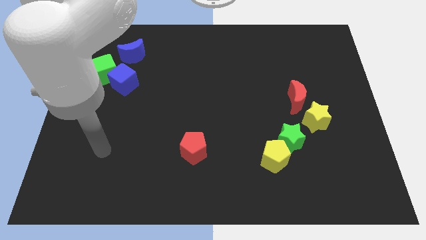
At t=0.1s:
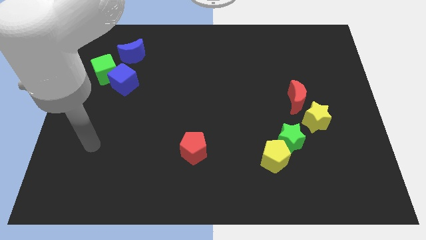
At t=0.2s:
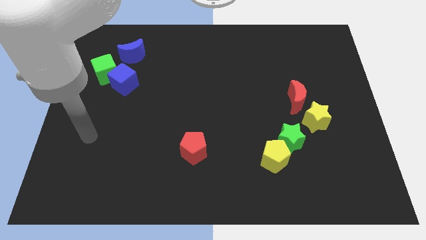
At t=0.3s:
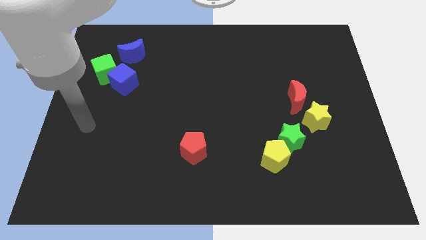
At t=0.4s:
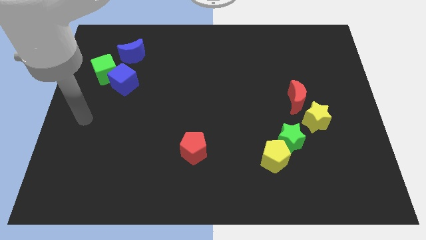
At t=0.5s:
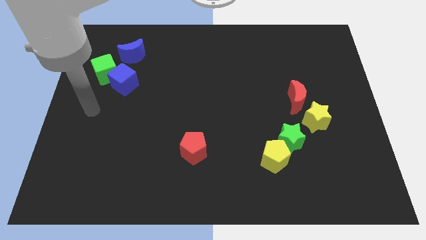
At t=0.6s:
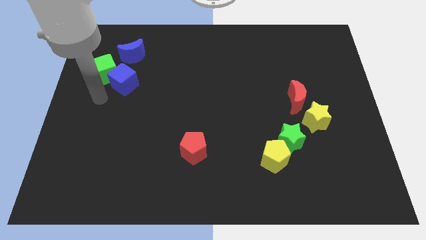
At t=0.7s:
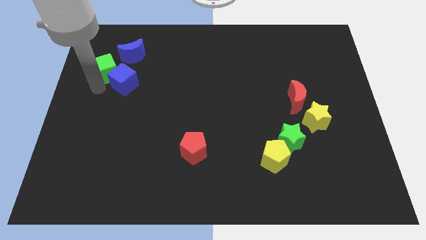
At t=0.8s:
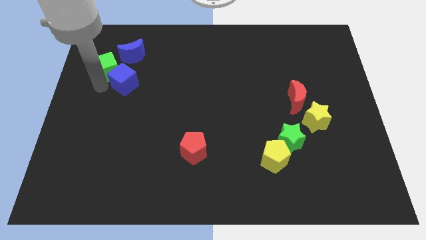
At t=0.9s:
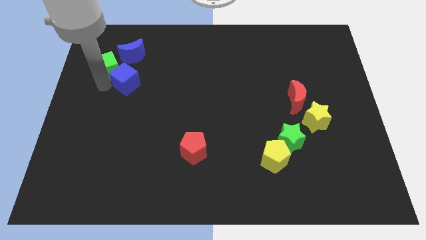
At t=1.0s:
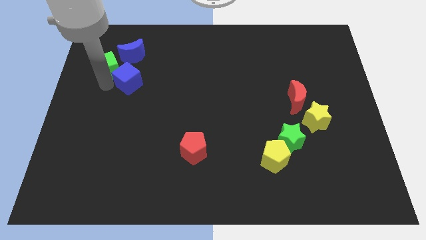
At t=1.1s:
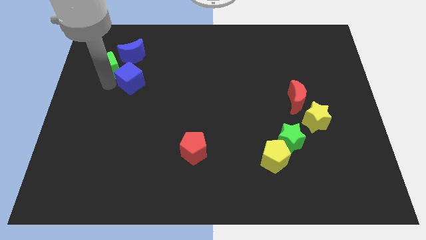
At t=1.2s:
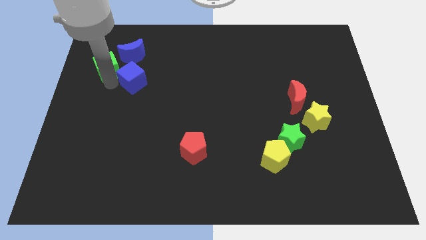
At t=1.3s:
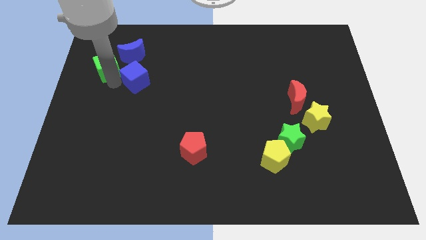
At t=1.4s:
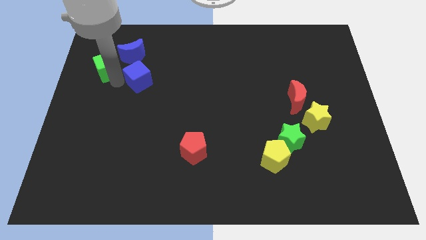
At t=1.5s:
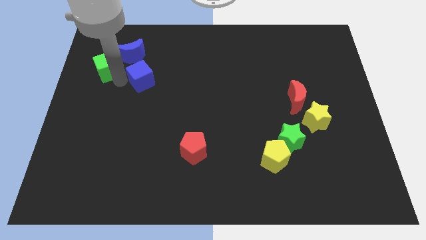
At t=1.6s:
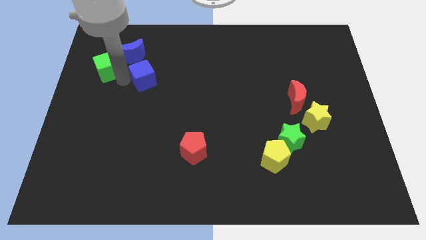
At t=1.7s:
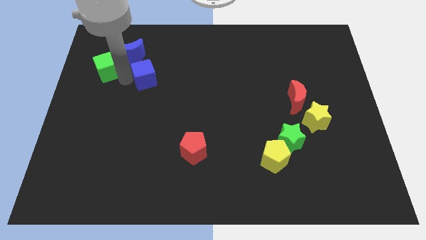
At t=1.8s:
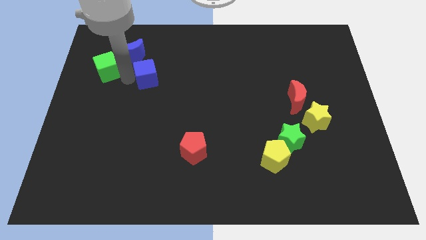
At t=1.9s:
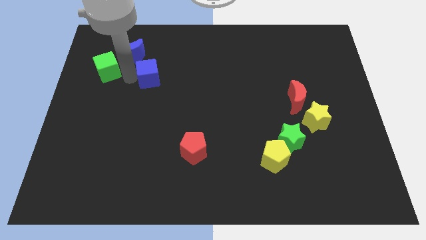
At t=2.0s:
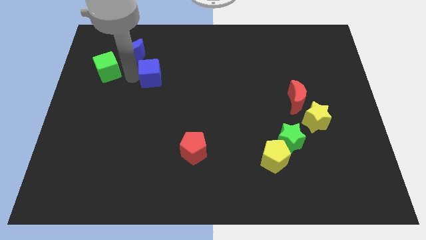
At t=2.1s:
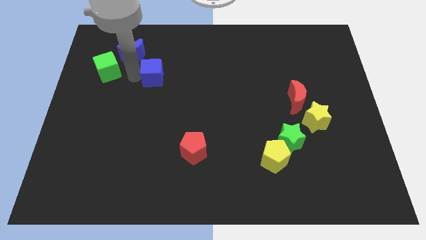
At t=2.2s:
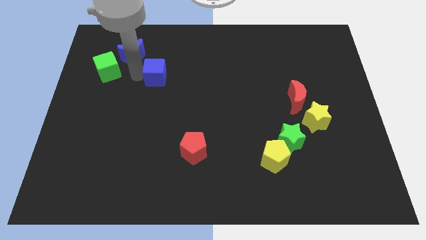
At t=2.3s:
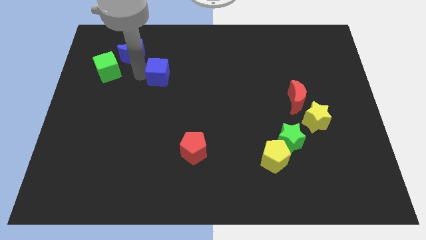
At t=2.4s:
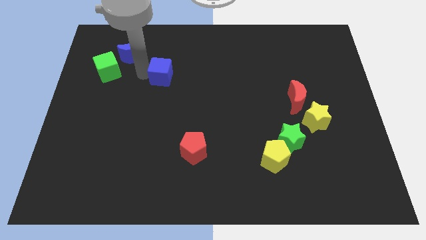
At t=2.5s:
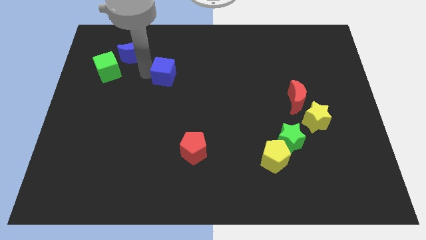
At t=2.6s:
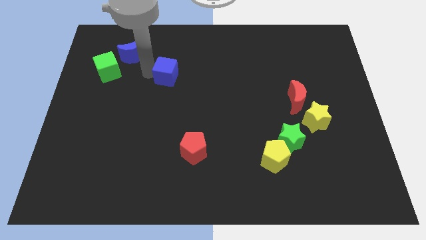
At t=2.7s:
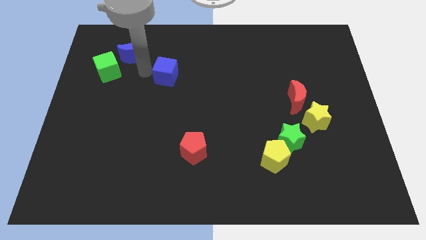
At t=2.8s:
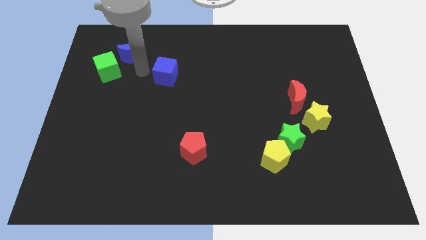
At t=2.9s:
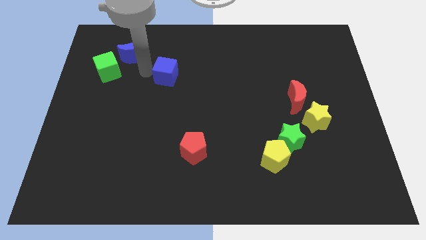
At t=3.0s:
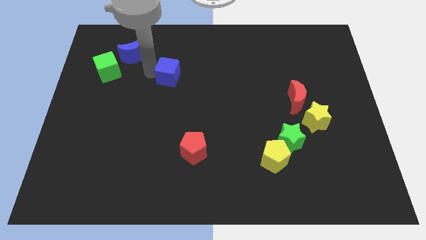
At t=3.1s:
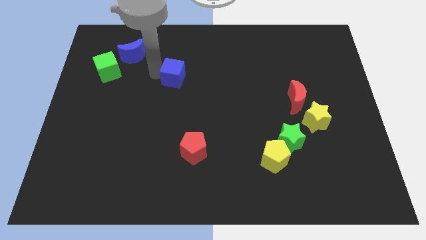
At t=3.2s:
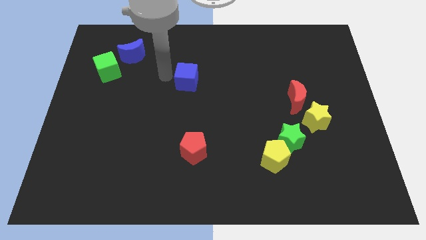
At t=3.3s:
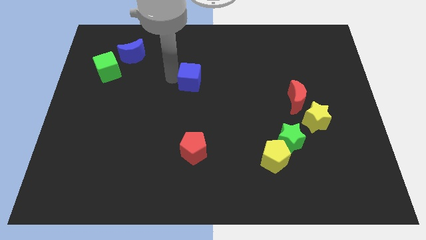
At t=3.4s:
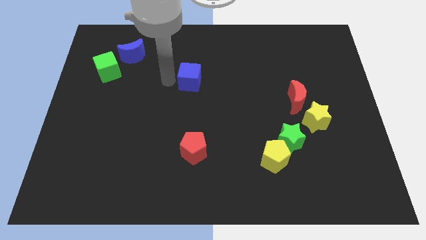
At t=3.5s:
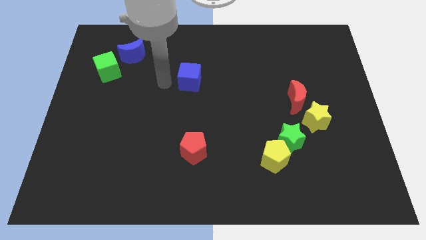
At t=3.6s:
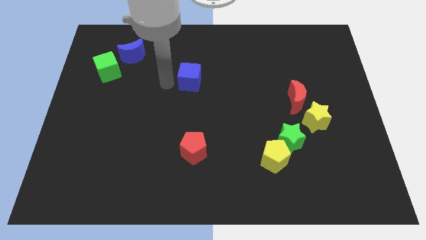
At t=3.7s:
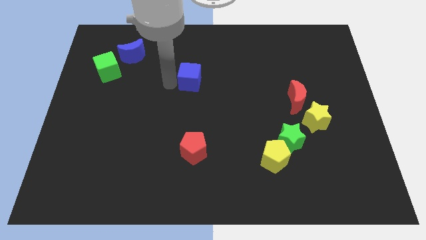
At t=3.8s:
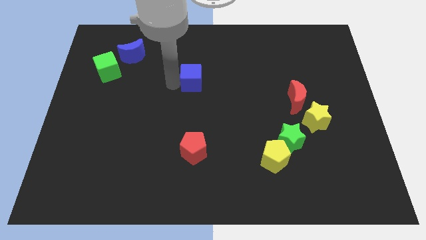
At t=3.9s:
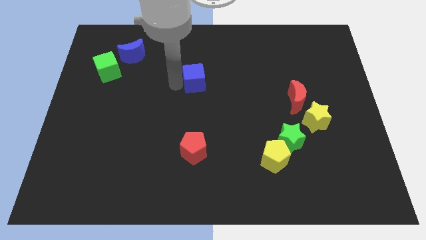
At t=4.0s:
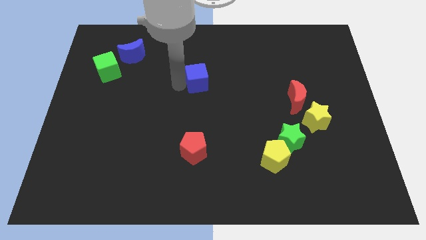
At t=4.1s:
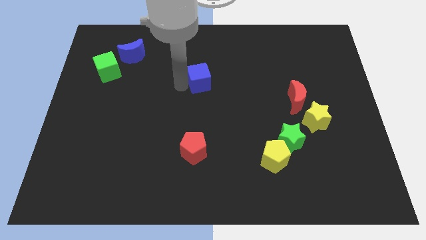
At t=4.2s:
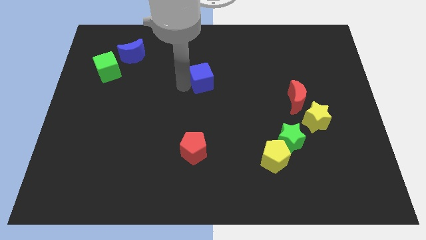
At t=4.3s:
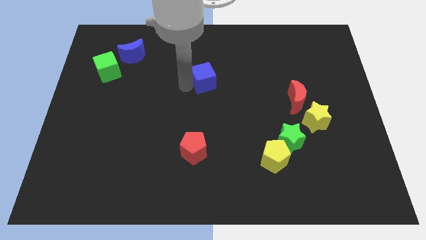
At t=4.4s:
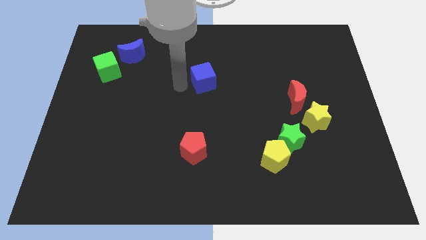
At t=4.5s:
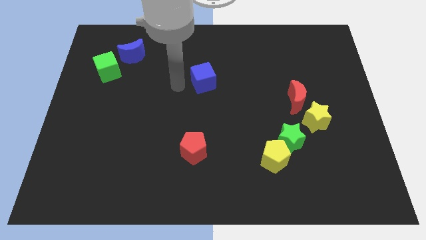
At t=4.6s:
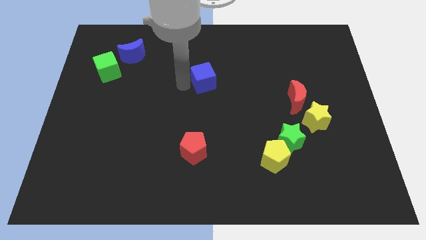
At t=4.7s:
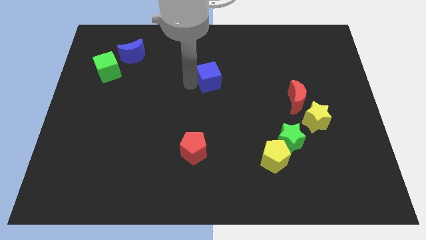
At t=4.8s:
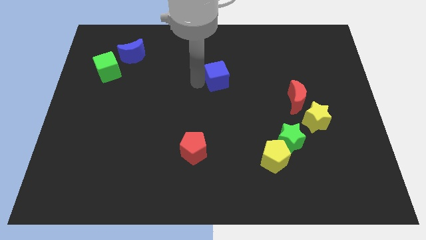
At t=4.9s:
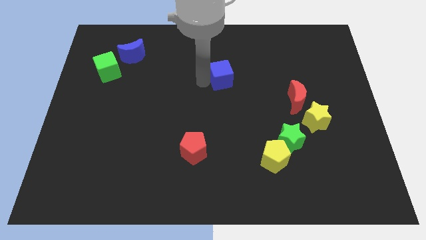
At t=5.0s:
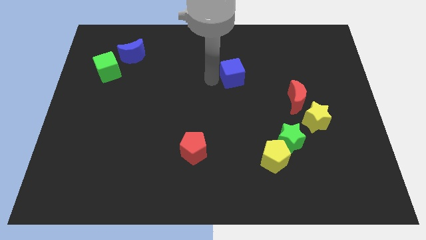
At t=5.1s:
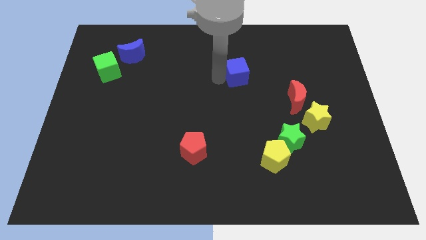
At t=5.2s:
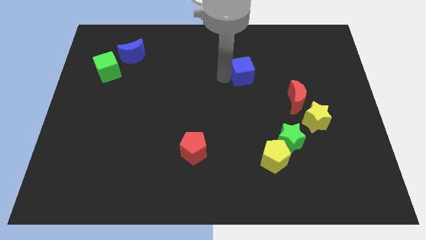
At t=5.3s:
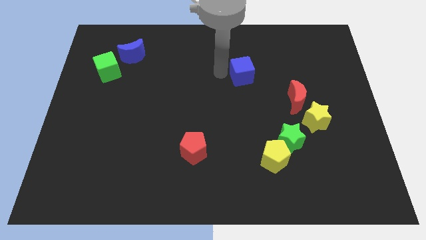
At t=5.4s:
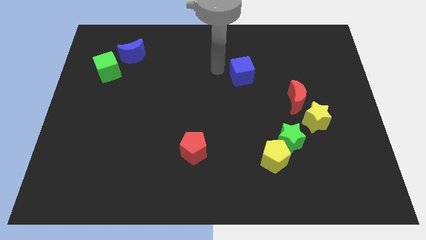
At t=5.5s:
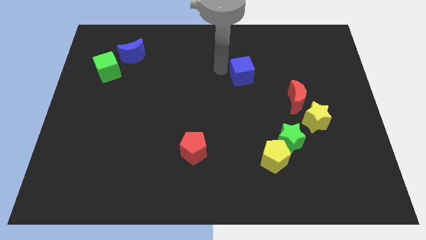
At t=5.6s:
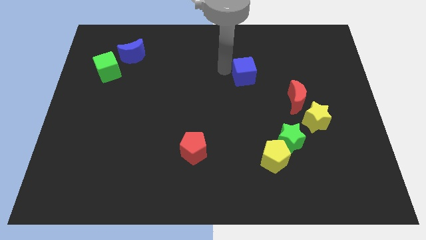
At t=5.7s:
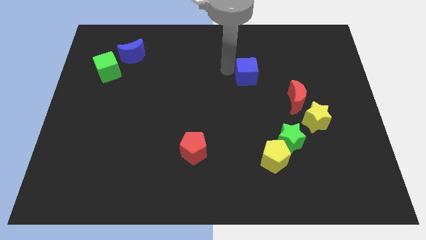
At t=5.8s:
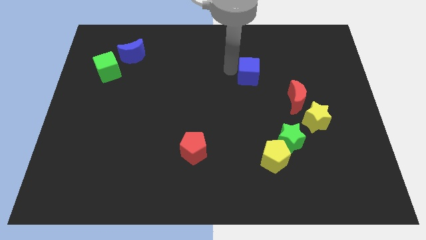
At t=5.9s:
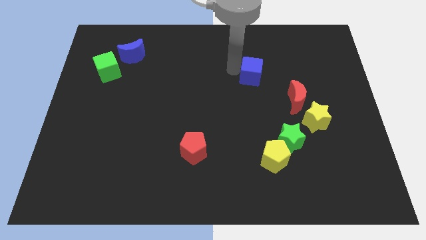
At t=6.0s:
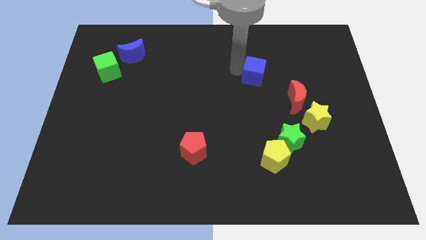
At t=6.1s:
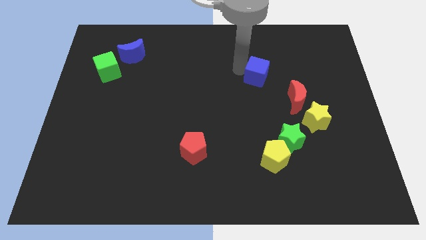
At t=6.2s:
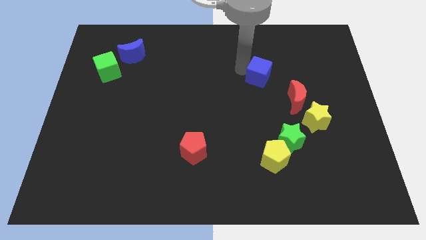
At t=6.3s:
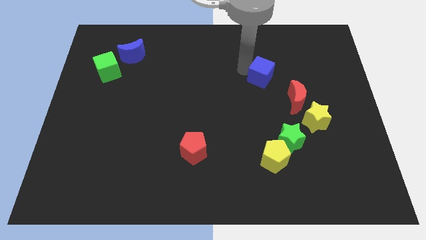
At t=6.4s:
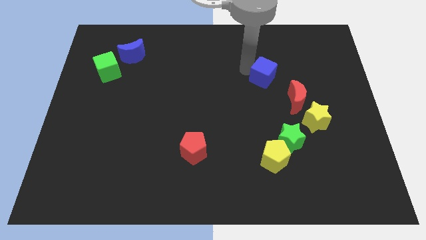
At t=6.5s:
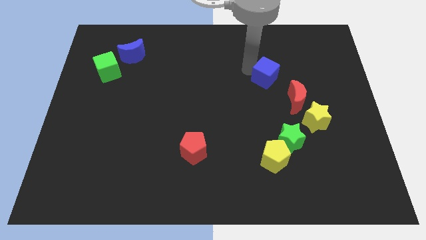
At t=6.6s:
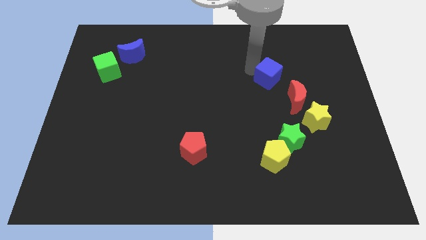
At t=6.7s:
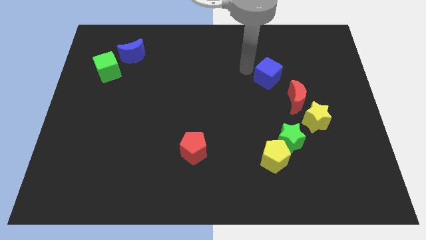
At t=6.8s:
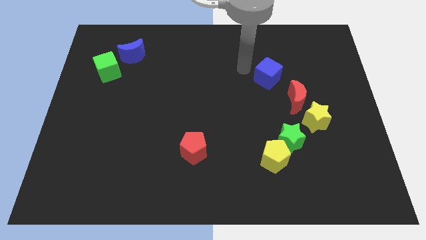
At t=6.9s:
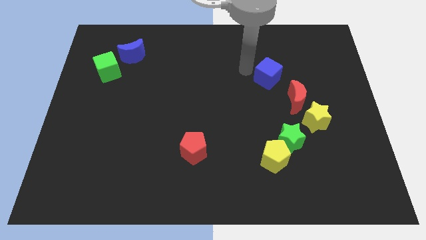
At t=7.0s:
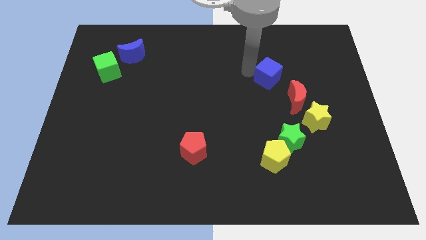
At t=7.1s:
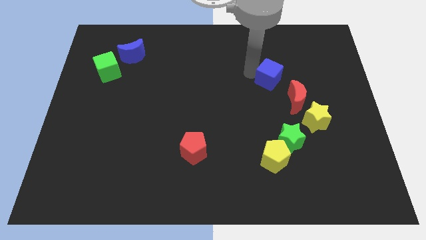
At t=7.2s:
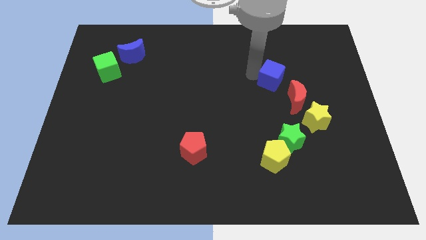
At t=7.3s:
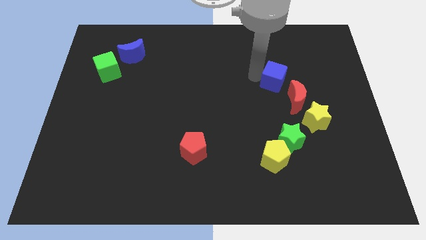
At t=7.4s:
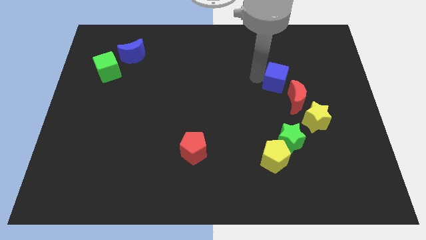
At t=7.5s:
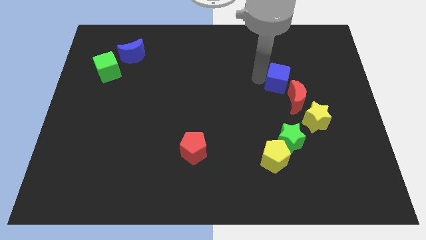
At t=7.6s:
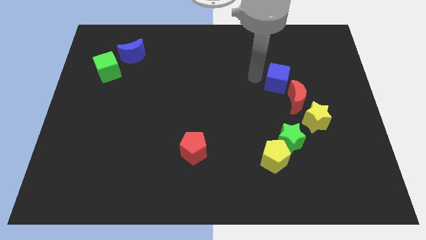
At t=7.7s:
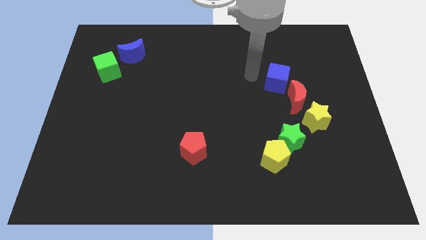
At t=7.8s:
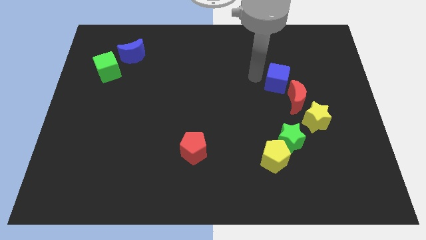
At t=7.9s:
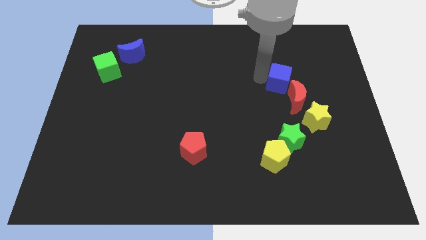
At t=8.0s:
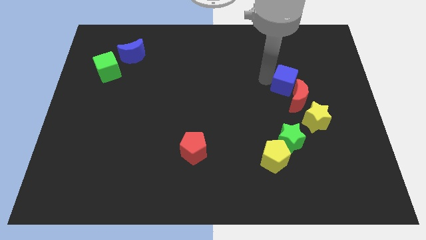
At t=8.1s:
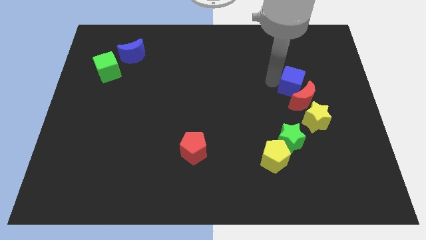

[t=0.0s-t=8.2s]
move the blue cube above the yellow star

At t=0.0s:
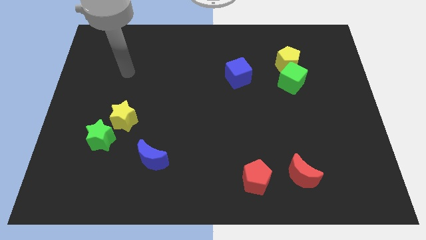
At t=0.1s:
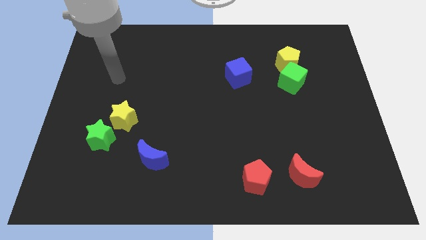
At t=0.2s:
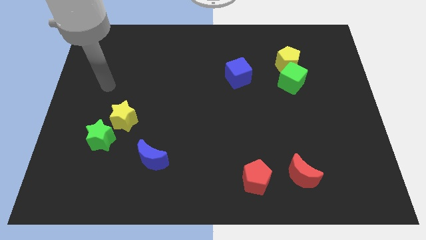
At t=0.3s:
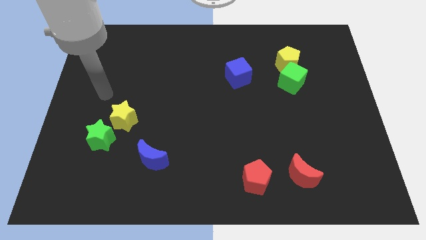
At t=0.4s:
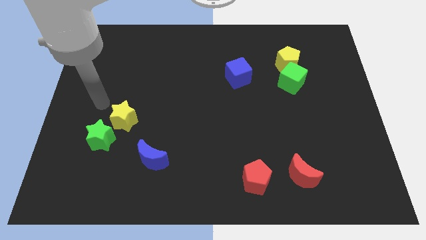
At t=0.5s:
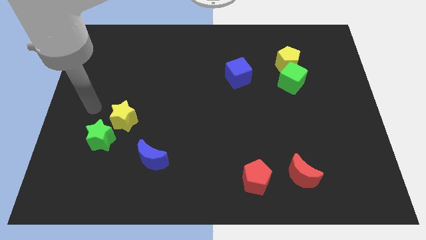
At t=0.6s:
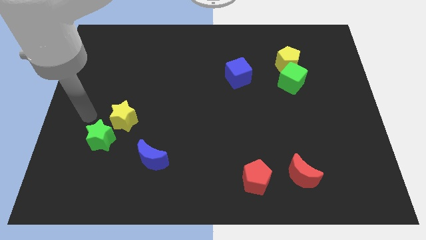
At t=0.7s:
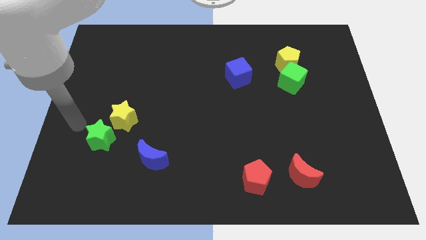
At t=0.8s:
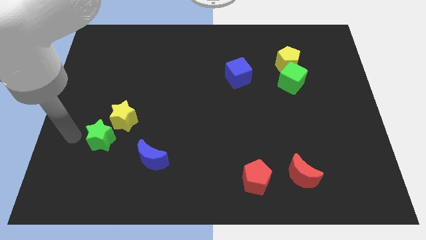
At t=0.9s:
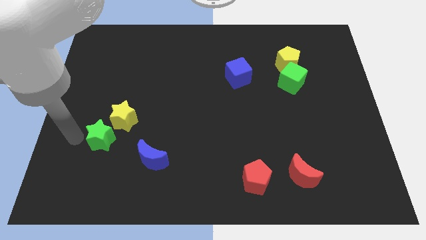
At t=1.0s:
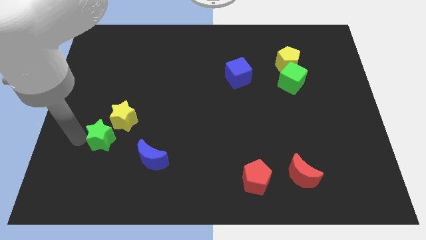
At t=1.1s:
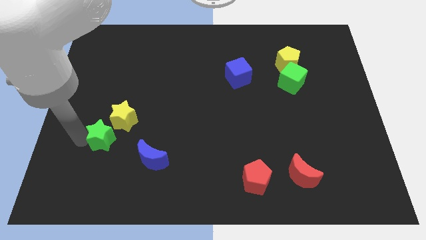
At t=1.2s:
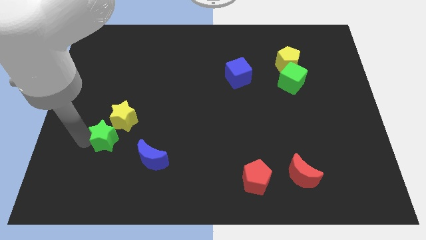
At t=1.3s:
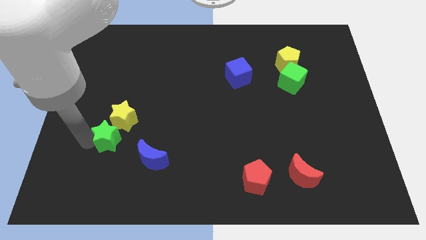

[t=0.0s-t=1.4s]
move the green star diagonally up and to the left of the blue moon
